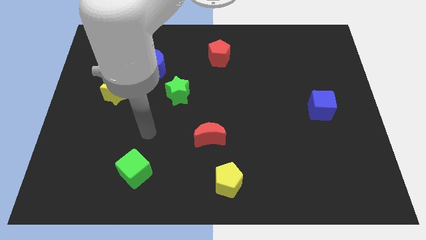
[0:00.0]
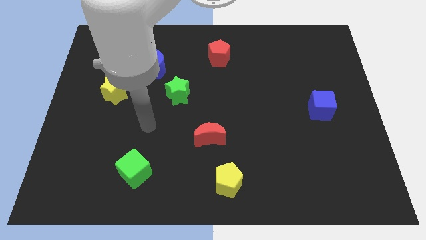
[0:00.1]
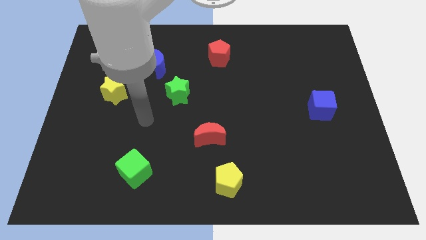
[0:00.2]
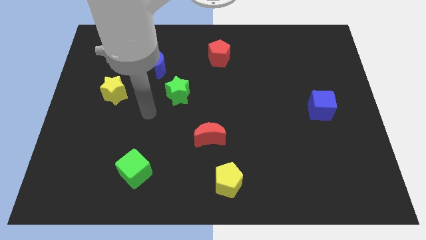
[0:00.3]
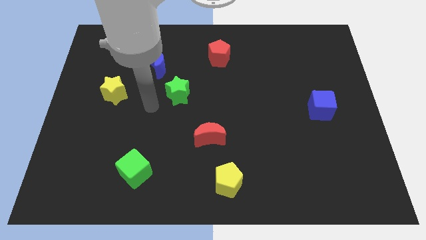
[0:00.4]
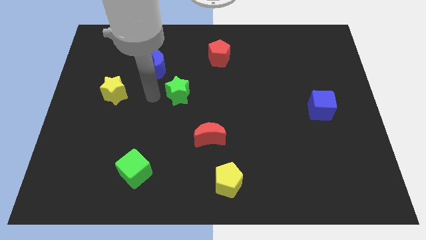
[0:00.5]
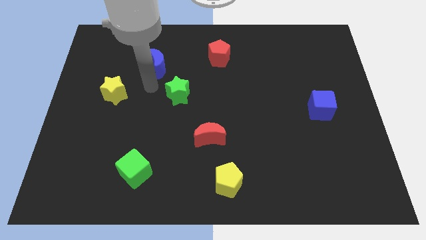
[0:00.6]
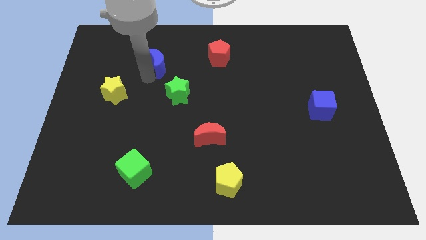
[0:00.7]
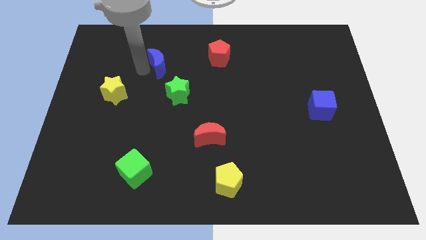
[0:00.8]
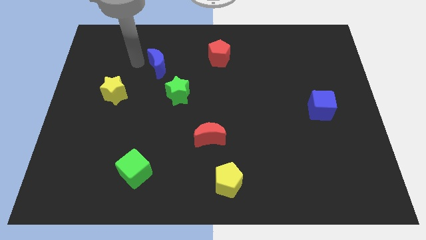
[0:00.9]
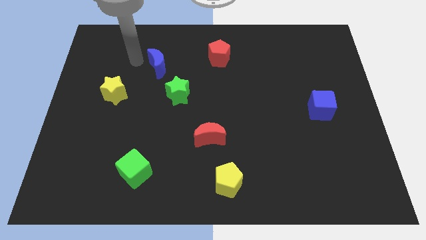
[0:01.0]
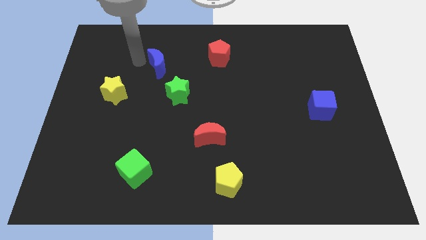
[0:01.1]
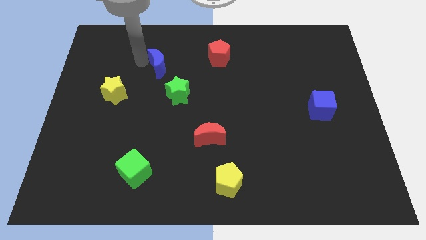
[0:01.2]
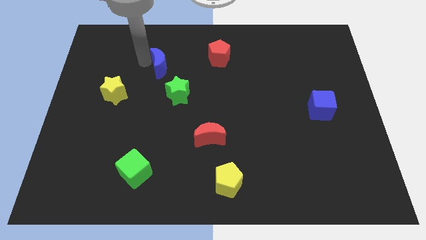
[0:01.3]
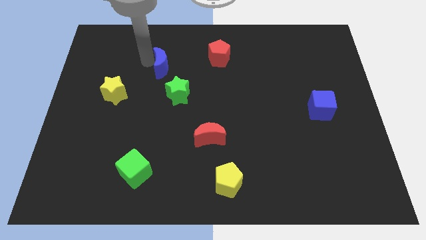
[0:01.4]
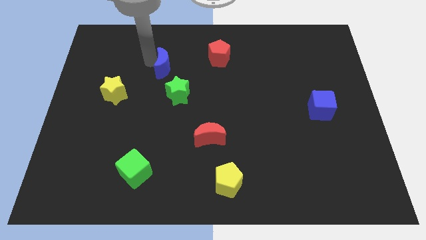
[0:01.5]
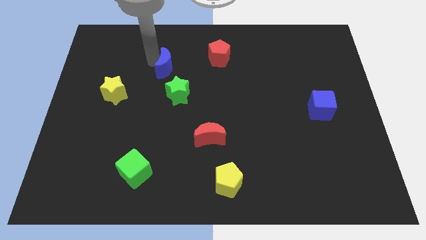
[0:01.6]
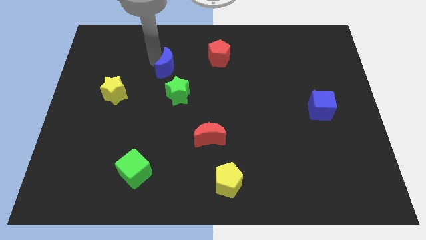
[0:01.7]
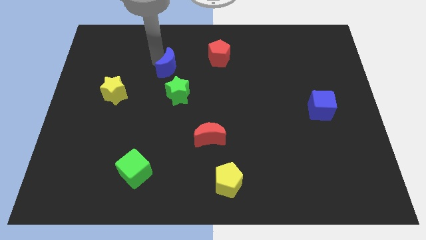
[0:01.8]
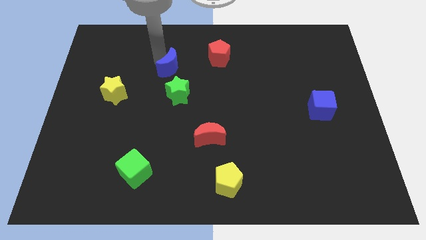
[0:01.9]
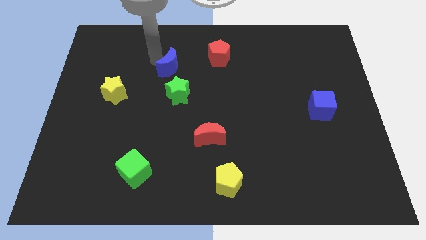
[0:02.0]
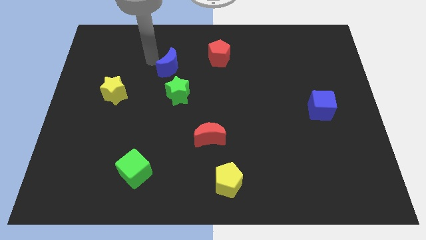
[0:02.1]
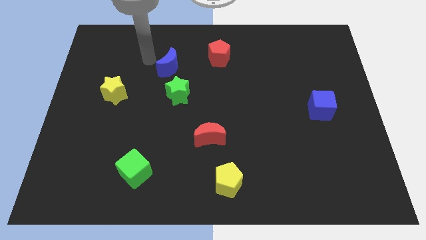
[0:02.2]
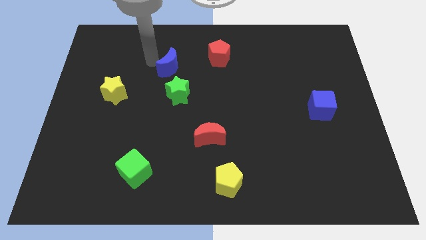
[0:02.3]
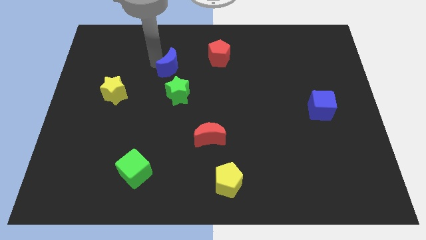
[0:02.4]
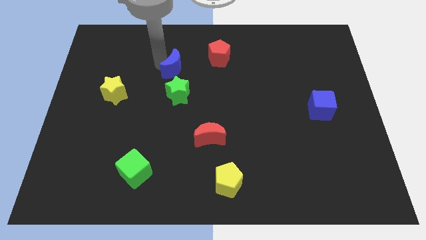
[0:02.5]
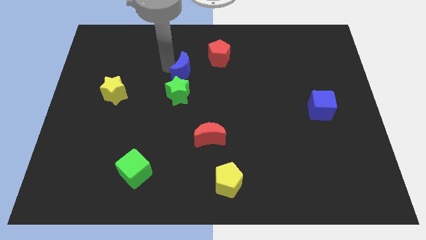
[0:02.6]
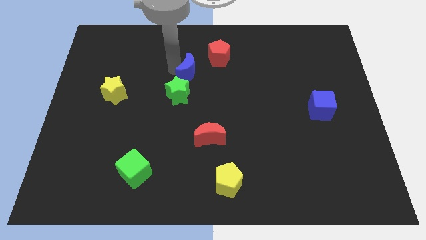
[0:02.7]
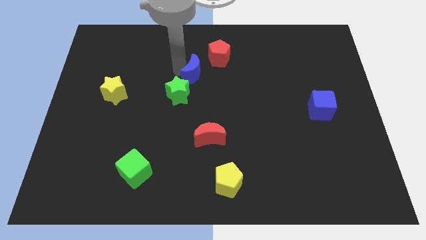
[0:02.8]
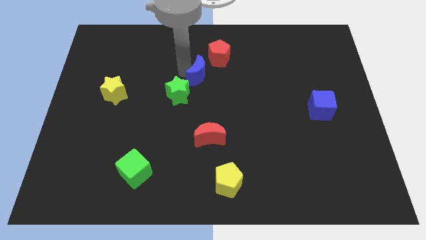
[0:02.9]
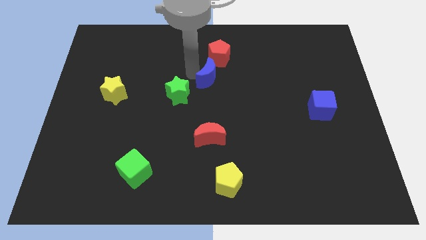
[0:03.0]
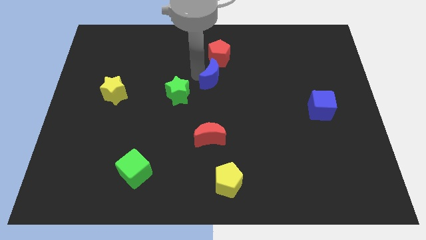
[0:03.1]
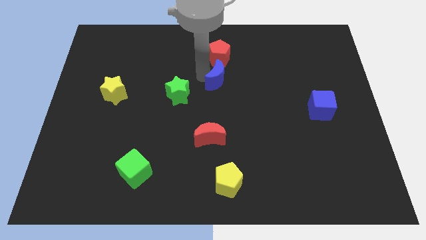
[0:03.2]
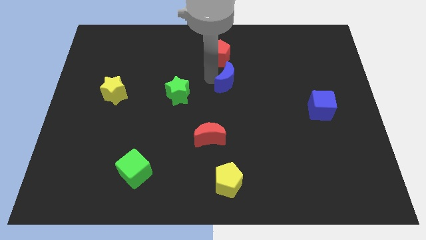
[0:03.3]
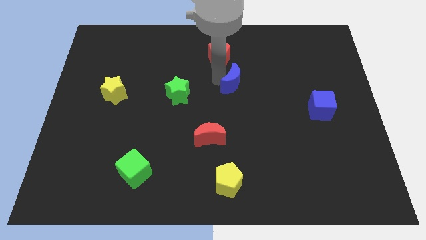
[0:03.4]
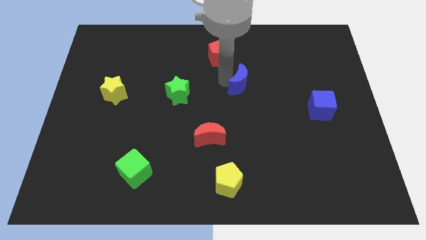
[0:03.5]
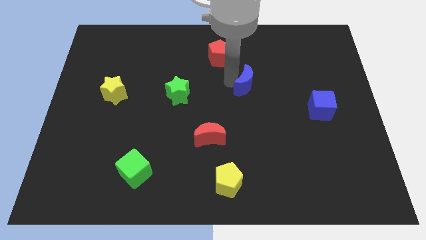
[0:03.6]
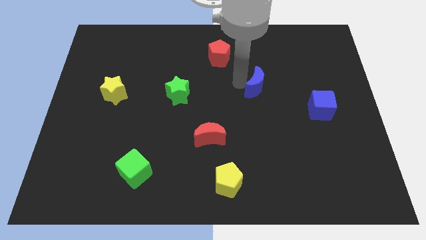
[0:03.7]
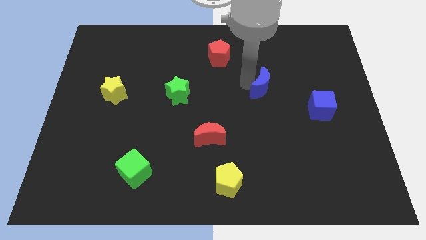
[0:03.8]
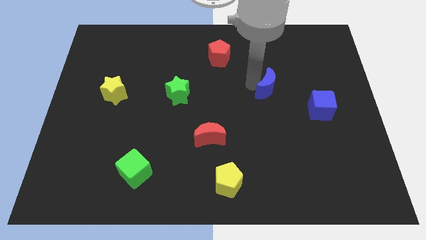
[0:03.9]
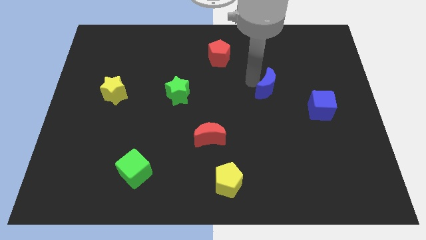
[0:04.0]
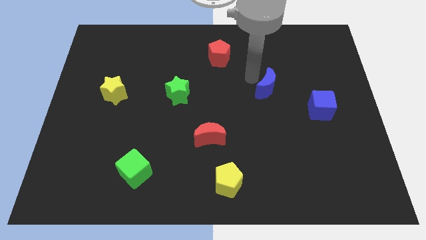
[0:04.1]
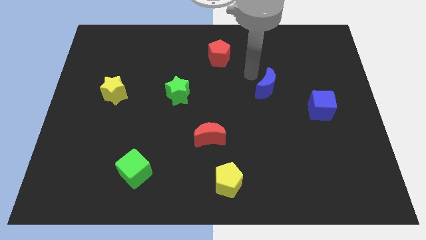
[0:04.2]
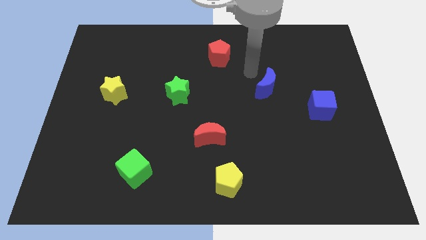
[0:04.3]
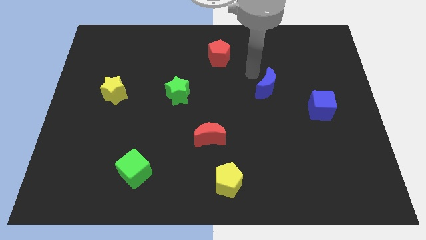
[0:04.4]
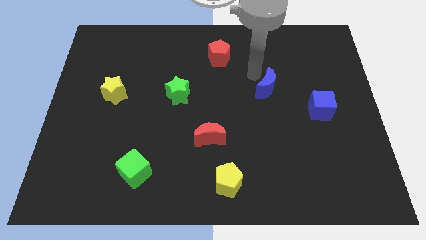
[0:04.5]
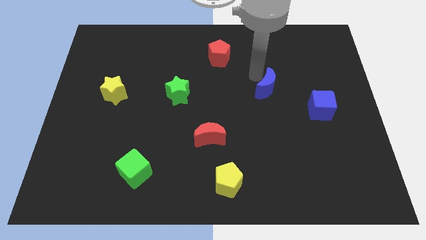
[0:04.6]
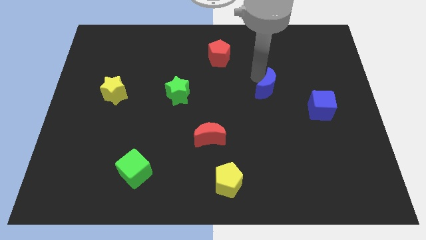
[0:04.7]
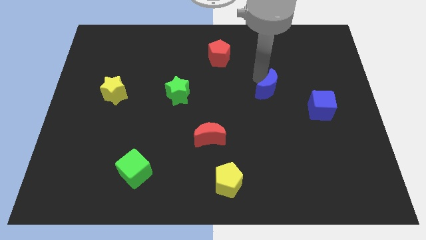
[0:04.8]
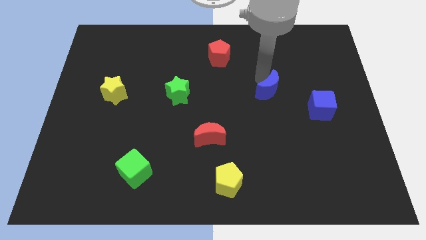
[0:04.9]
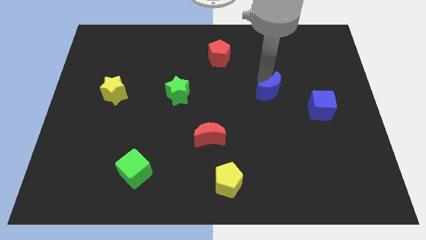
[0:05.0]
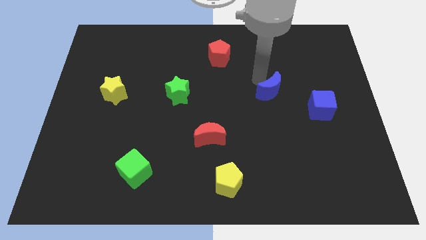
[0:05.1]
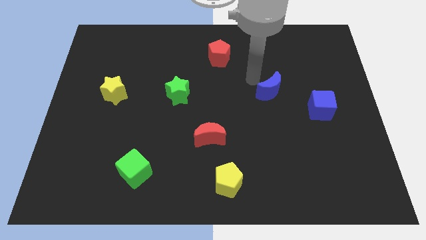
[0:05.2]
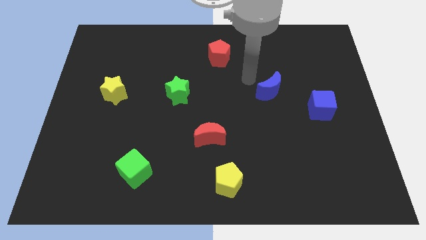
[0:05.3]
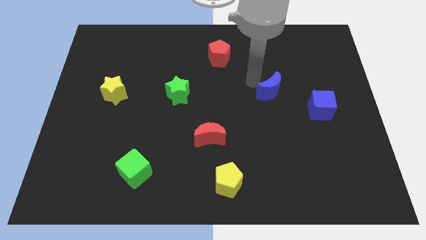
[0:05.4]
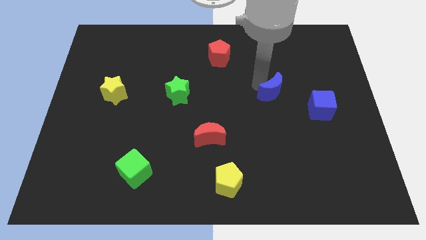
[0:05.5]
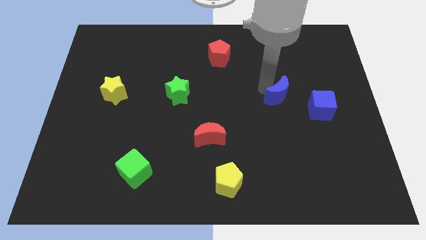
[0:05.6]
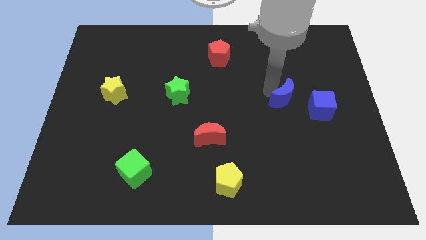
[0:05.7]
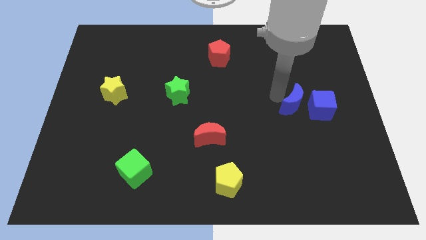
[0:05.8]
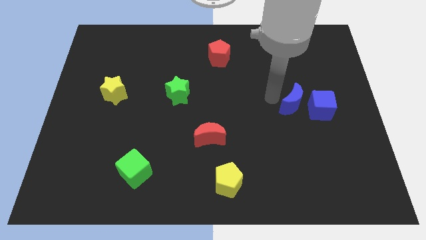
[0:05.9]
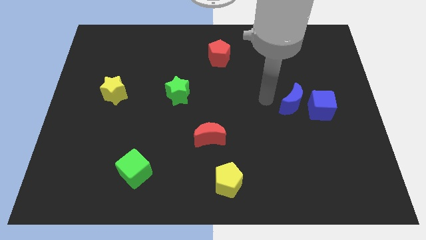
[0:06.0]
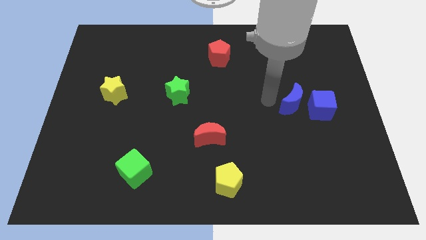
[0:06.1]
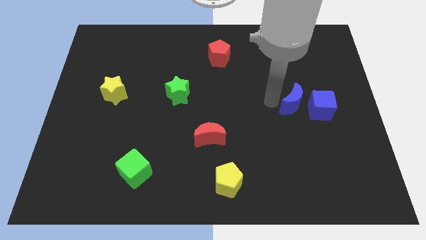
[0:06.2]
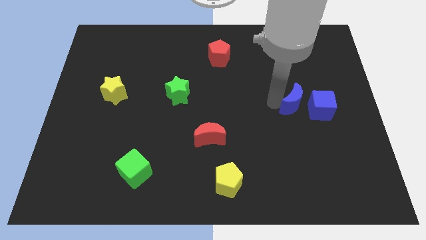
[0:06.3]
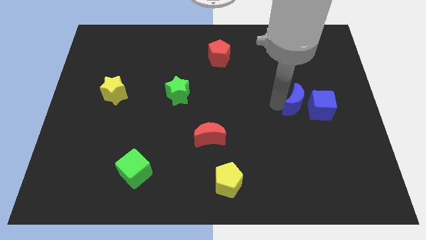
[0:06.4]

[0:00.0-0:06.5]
push the blue moon close to the blue cube
